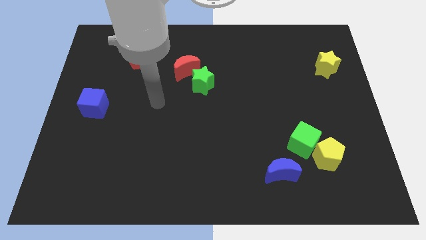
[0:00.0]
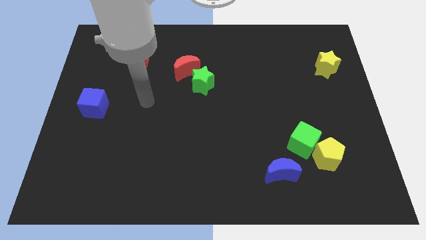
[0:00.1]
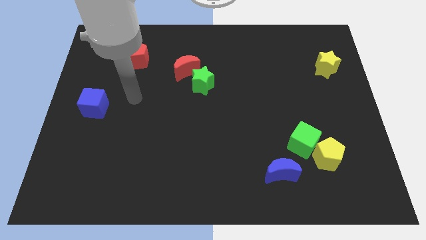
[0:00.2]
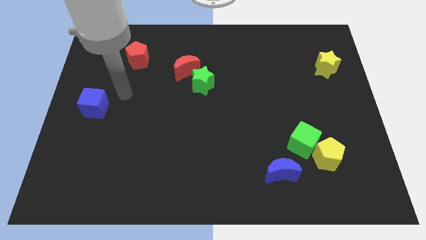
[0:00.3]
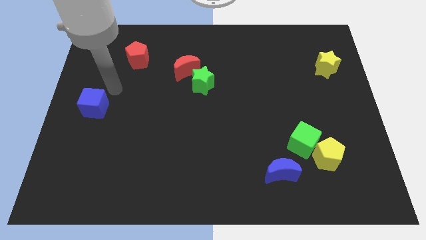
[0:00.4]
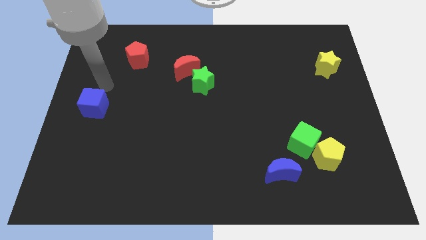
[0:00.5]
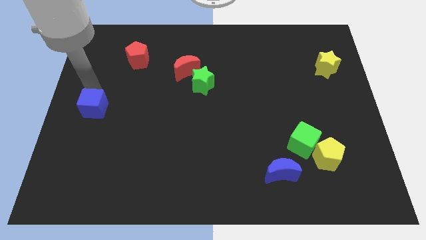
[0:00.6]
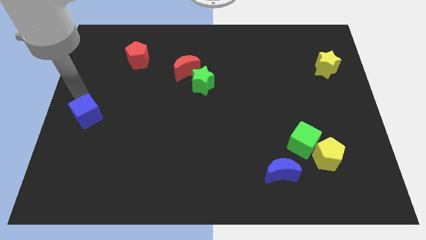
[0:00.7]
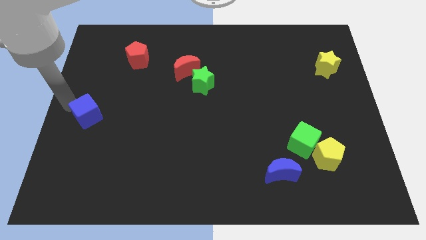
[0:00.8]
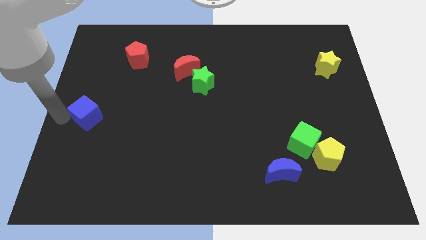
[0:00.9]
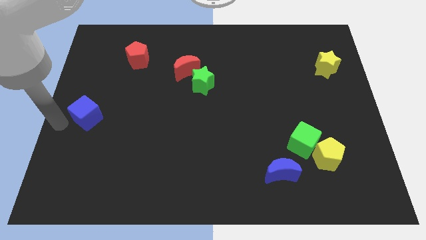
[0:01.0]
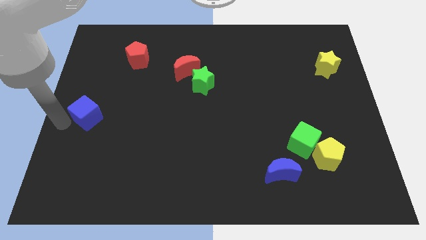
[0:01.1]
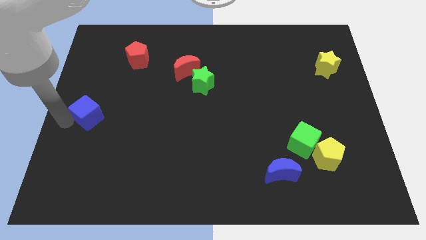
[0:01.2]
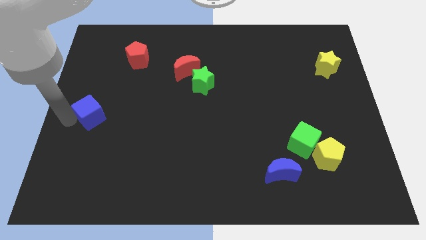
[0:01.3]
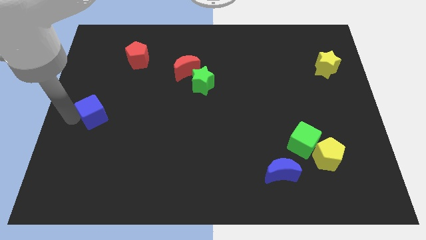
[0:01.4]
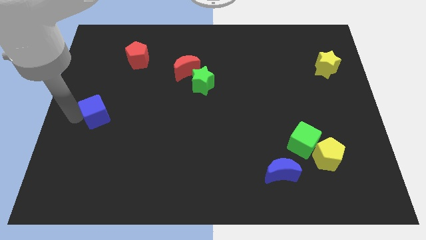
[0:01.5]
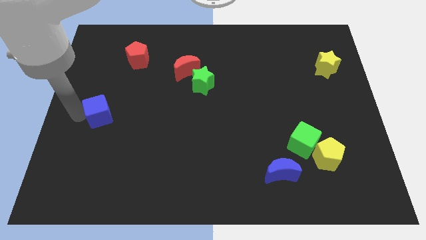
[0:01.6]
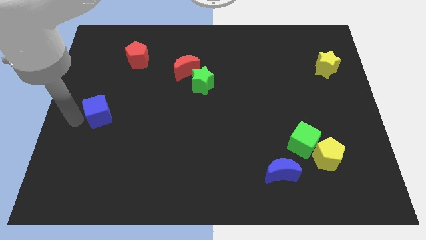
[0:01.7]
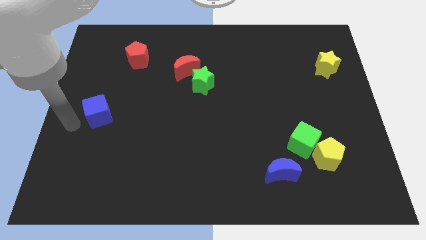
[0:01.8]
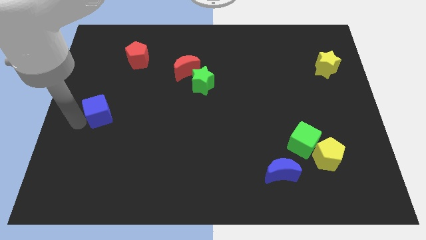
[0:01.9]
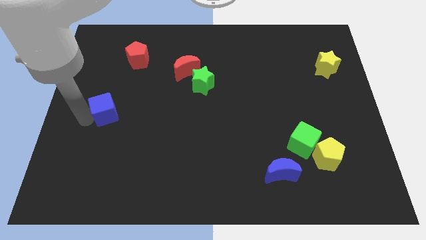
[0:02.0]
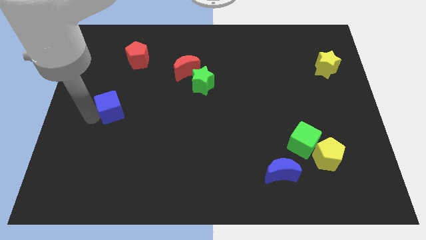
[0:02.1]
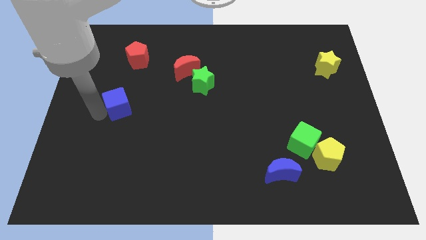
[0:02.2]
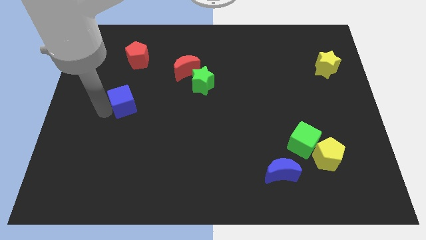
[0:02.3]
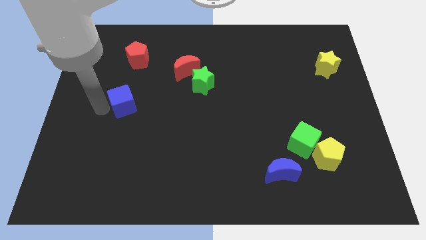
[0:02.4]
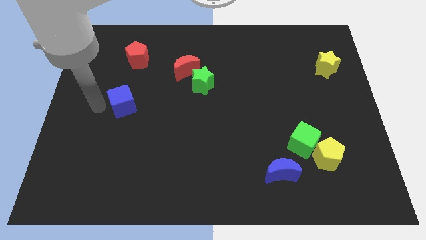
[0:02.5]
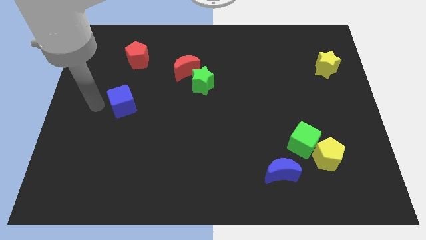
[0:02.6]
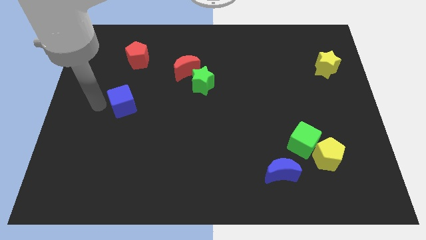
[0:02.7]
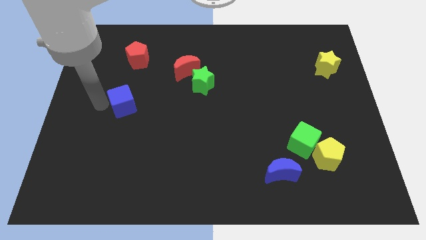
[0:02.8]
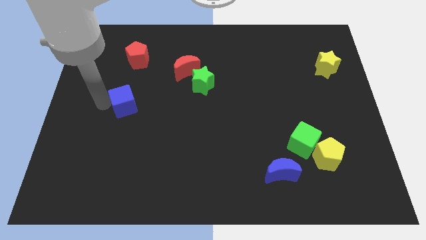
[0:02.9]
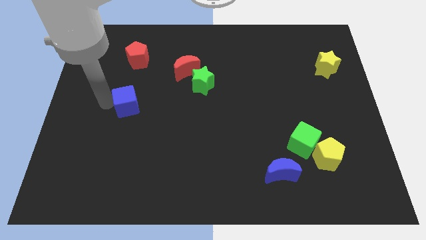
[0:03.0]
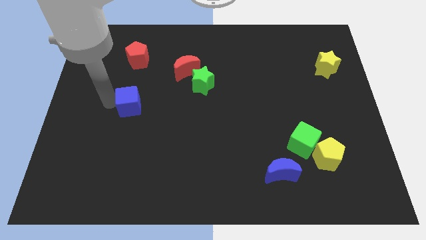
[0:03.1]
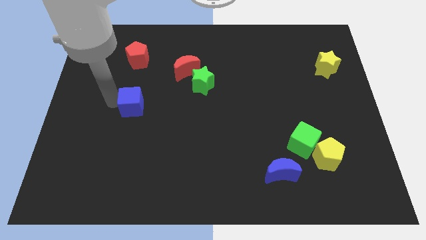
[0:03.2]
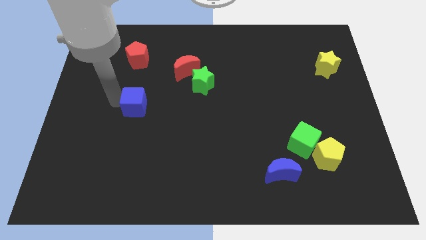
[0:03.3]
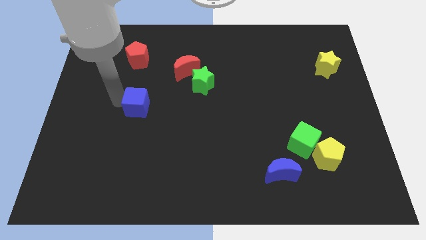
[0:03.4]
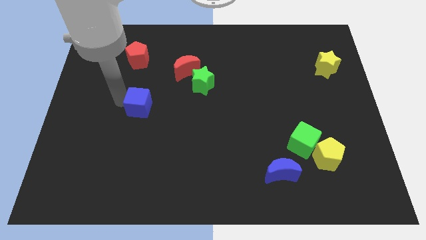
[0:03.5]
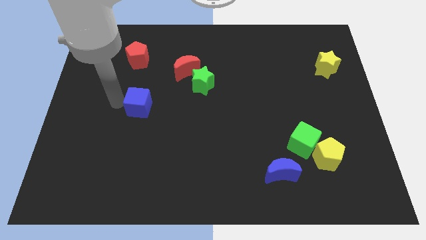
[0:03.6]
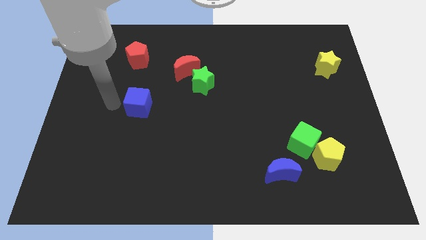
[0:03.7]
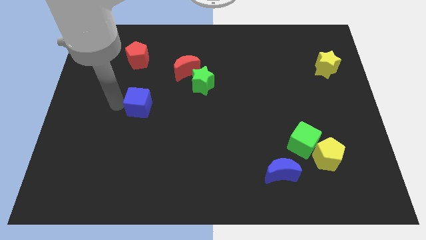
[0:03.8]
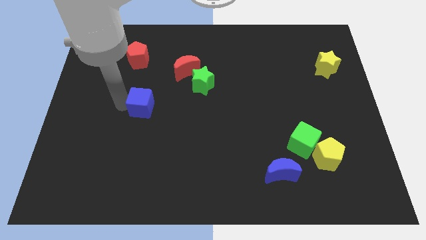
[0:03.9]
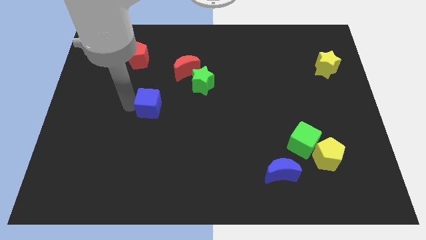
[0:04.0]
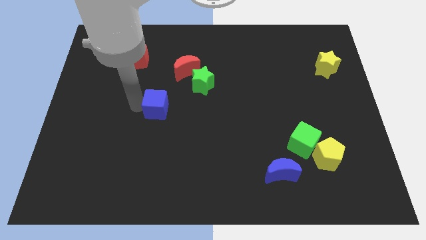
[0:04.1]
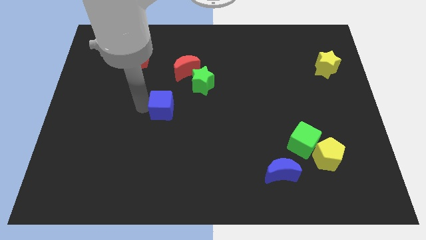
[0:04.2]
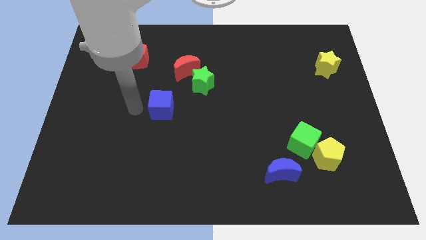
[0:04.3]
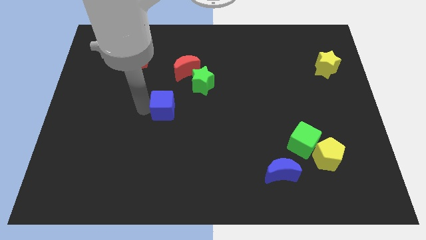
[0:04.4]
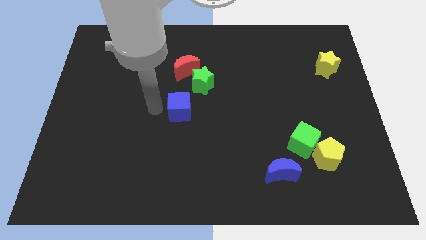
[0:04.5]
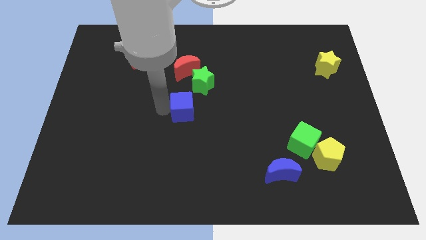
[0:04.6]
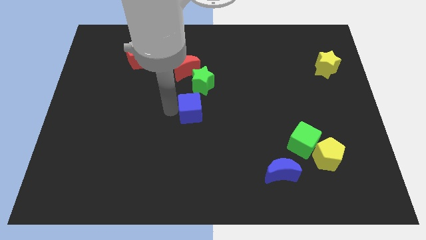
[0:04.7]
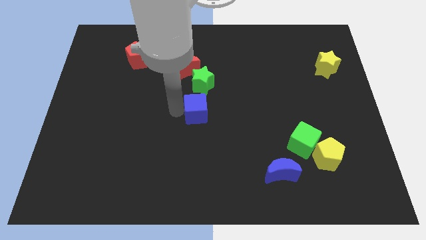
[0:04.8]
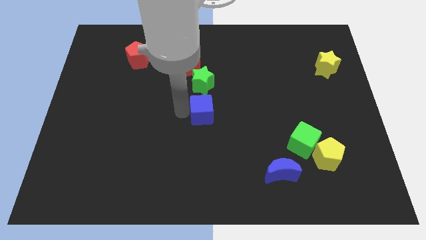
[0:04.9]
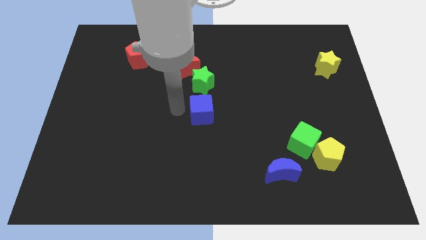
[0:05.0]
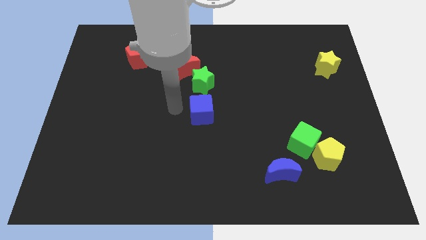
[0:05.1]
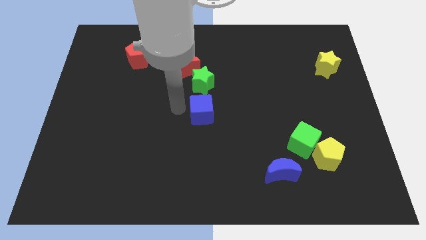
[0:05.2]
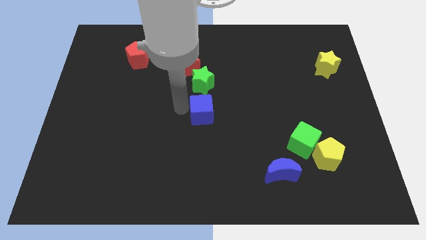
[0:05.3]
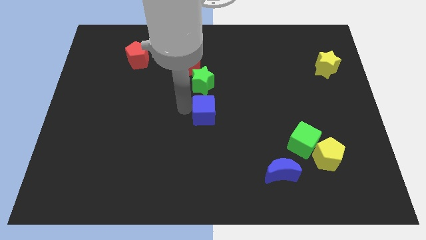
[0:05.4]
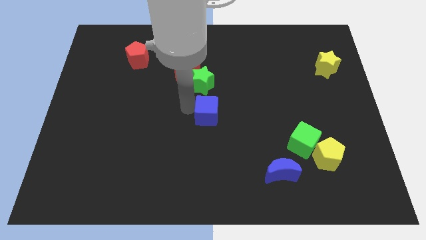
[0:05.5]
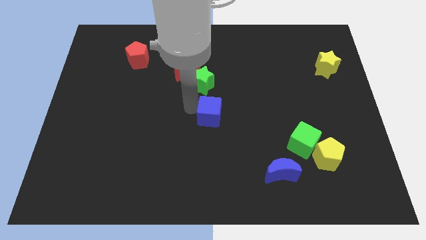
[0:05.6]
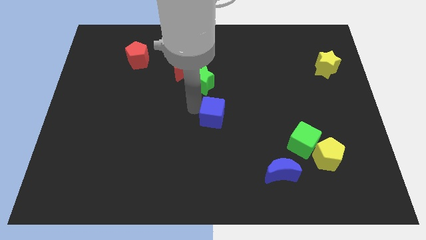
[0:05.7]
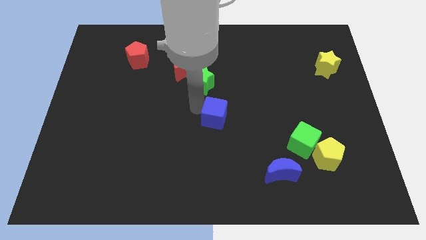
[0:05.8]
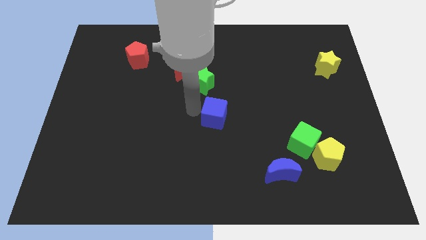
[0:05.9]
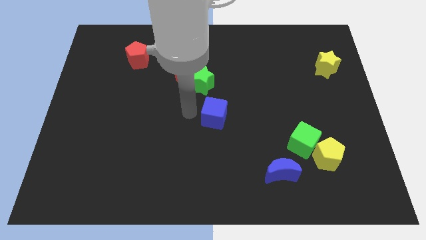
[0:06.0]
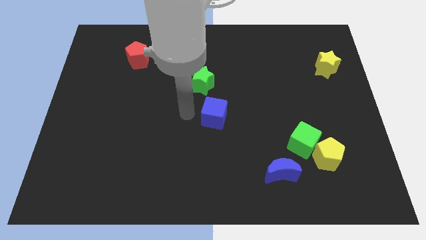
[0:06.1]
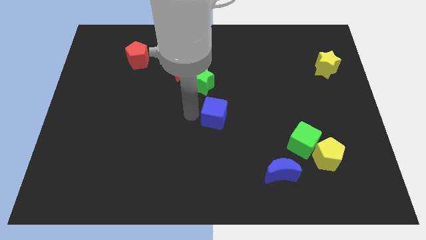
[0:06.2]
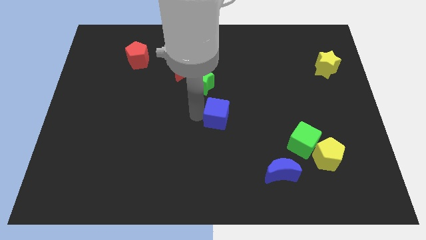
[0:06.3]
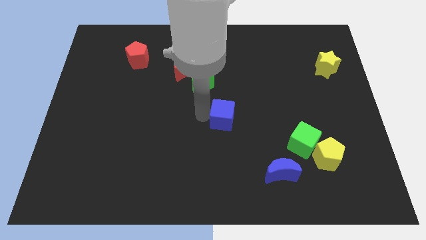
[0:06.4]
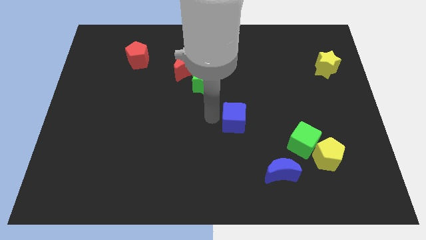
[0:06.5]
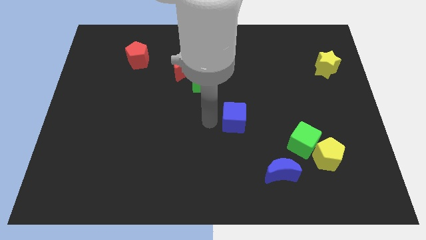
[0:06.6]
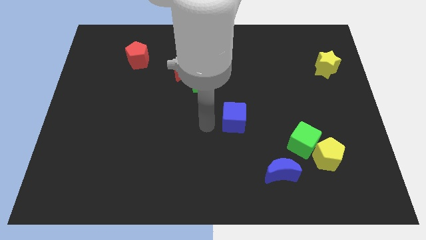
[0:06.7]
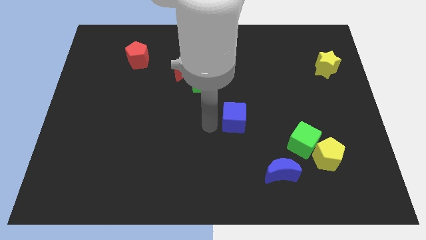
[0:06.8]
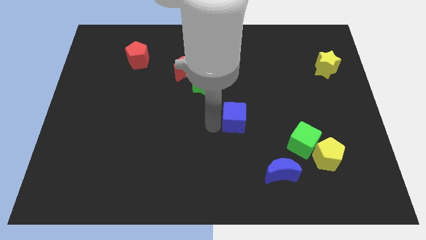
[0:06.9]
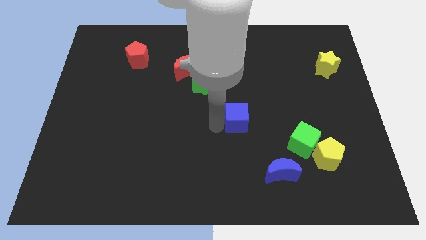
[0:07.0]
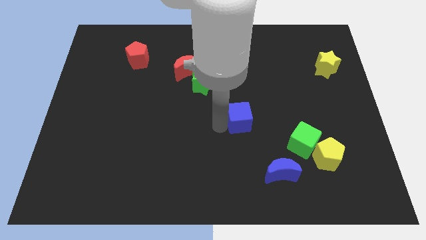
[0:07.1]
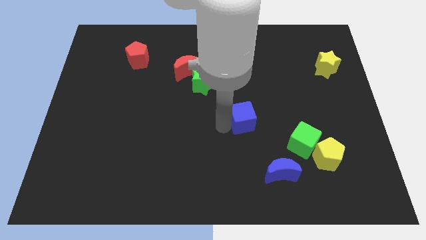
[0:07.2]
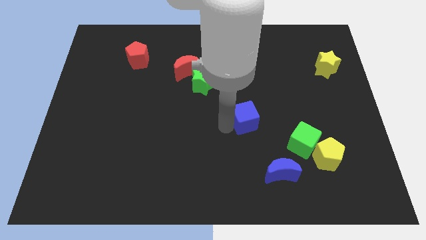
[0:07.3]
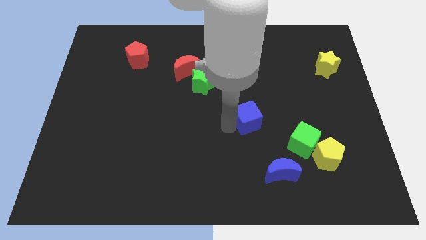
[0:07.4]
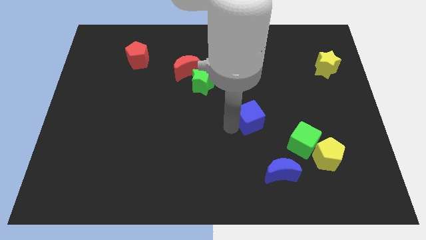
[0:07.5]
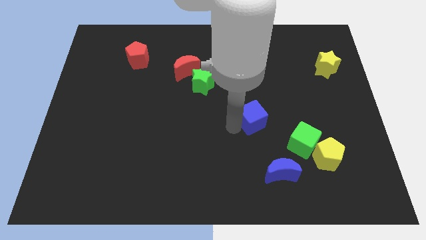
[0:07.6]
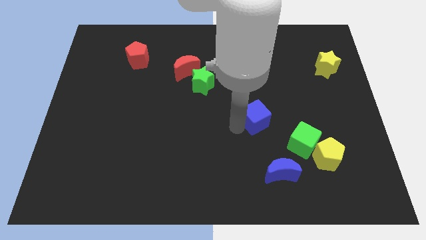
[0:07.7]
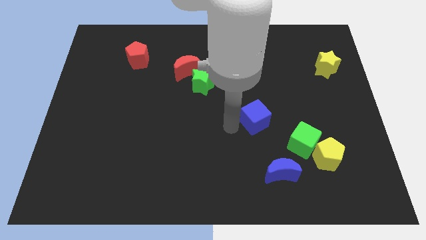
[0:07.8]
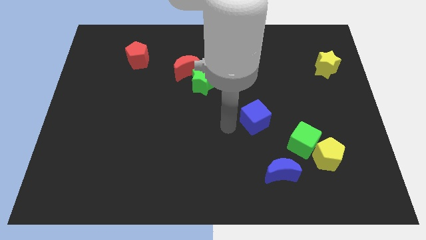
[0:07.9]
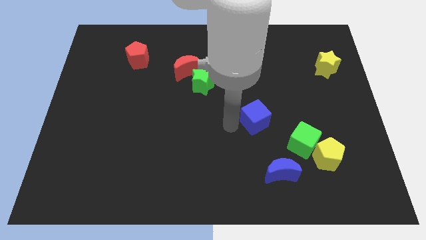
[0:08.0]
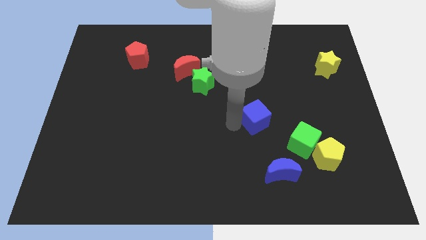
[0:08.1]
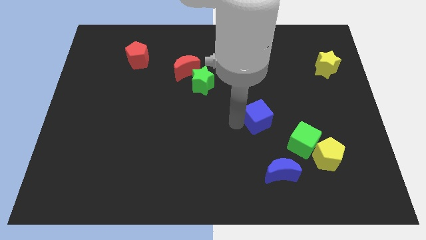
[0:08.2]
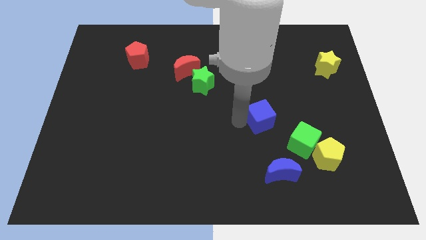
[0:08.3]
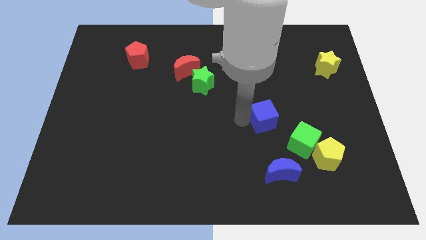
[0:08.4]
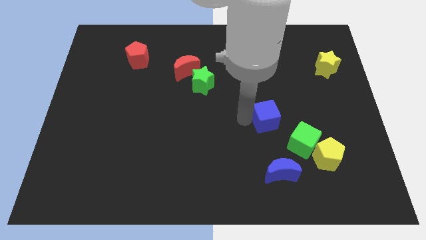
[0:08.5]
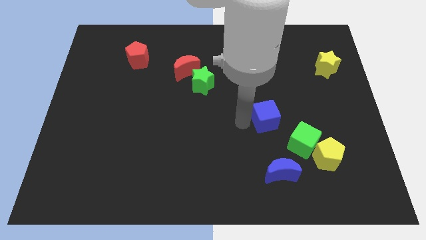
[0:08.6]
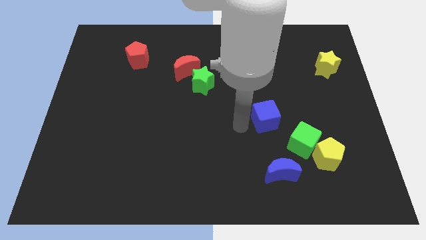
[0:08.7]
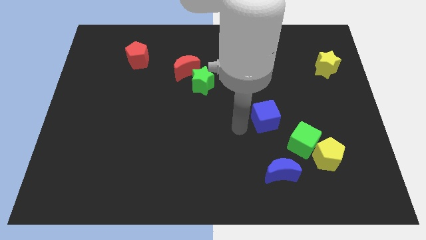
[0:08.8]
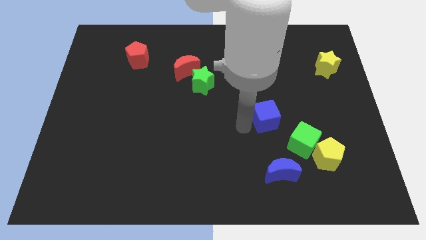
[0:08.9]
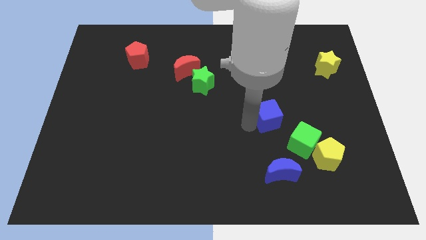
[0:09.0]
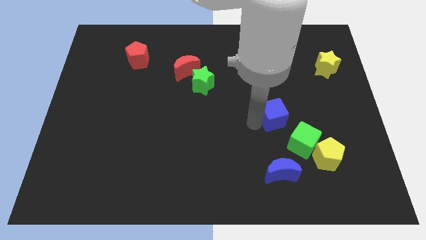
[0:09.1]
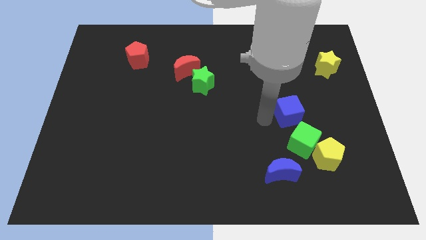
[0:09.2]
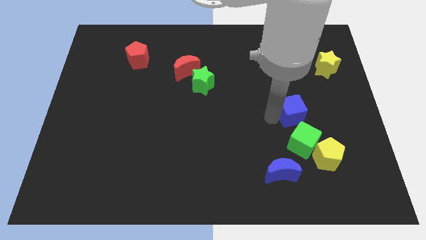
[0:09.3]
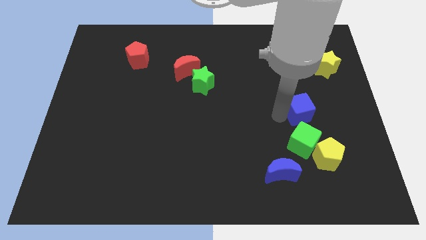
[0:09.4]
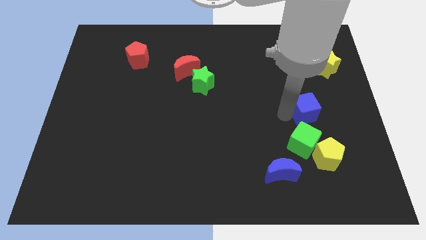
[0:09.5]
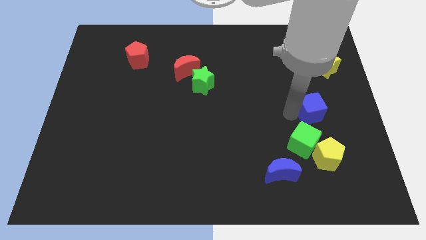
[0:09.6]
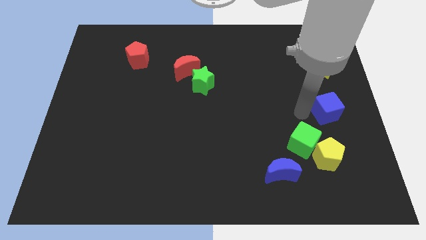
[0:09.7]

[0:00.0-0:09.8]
put the blue cube to the center right
